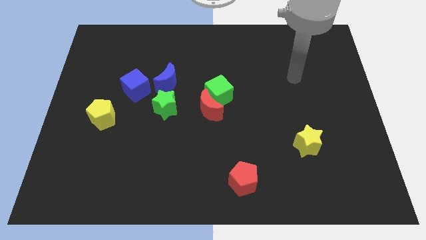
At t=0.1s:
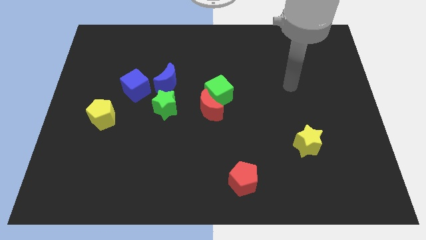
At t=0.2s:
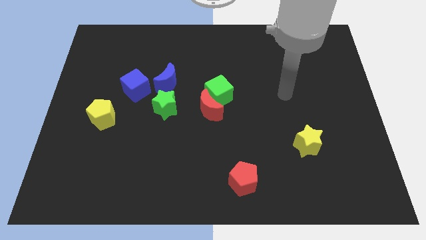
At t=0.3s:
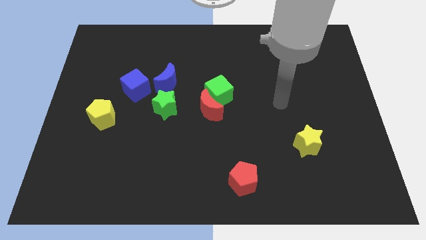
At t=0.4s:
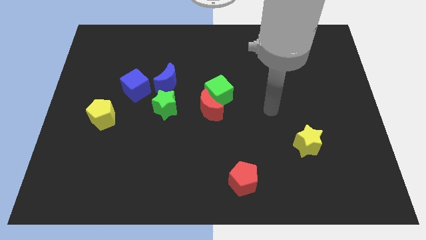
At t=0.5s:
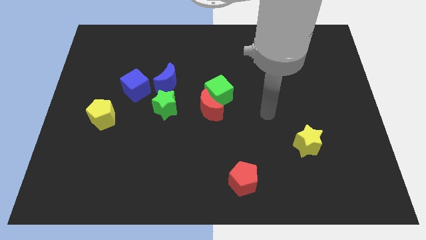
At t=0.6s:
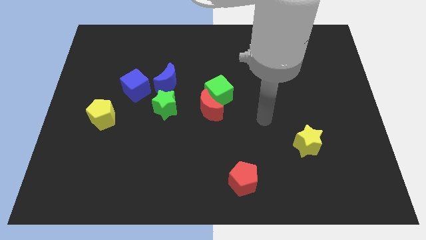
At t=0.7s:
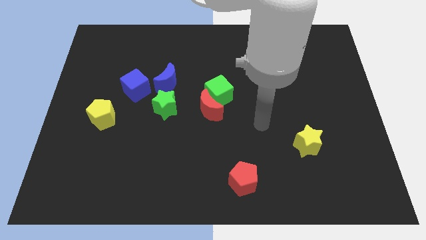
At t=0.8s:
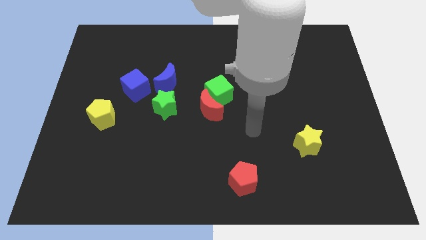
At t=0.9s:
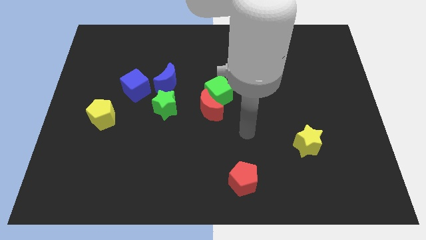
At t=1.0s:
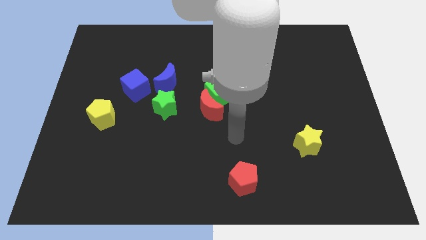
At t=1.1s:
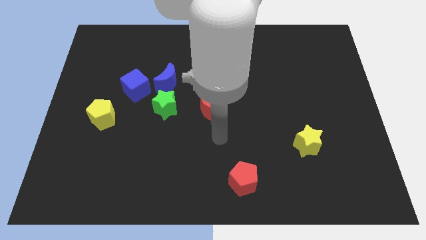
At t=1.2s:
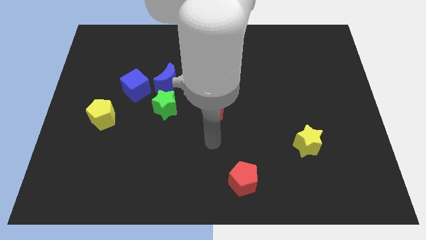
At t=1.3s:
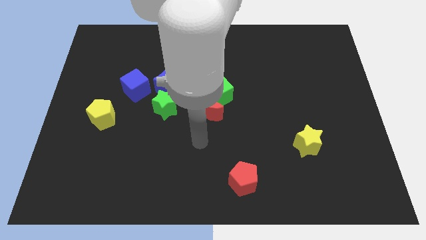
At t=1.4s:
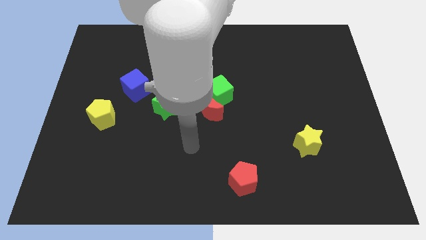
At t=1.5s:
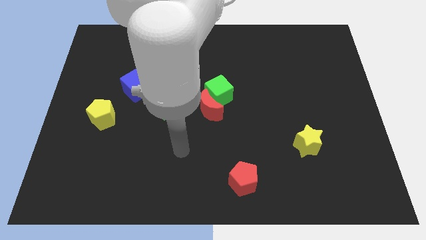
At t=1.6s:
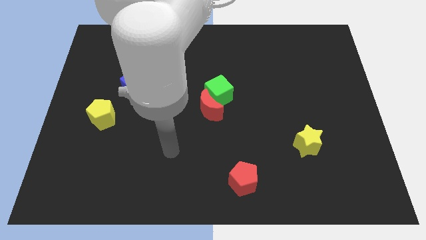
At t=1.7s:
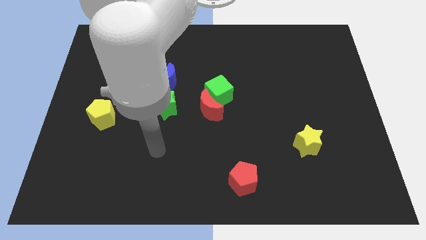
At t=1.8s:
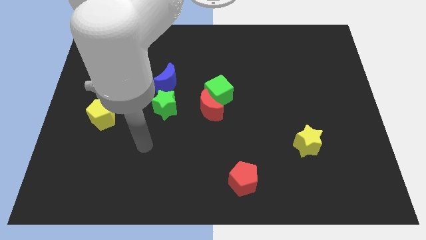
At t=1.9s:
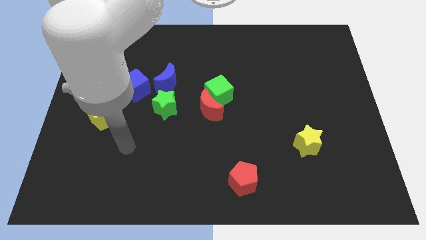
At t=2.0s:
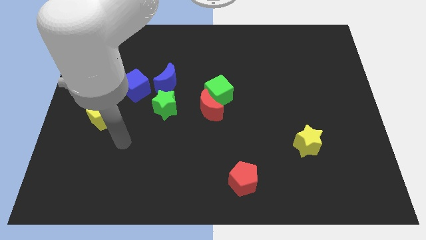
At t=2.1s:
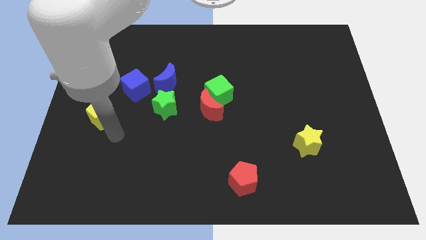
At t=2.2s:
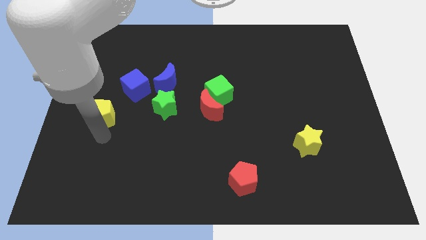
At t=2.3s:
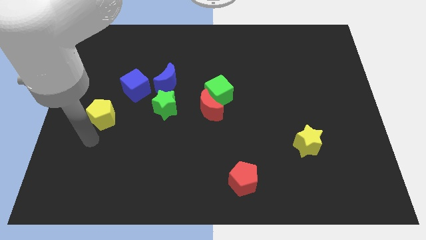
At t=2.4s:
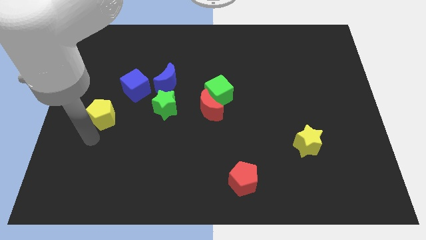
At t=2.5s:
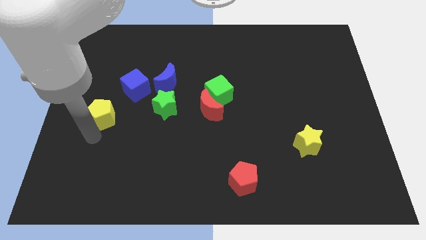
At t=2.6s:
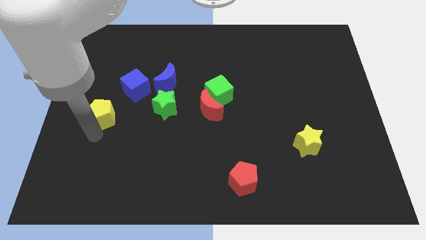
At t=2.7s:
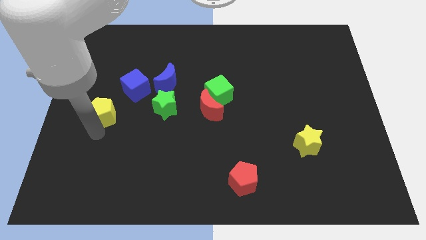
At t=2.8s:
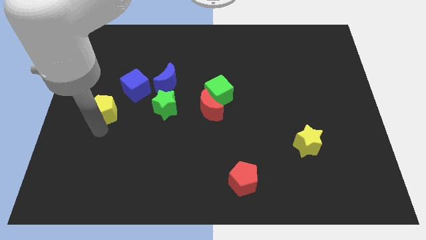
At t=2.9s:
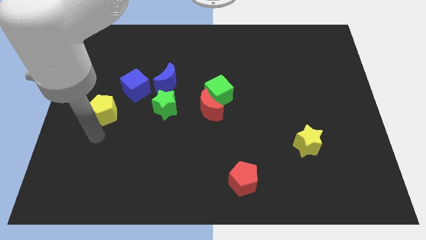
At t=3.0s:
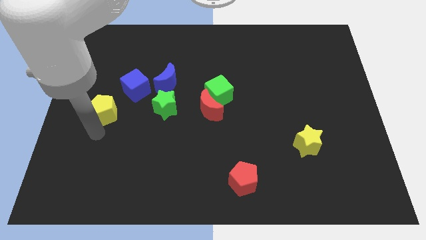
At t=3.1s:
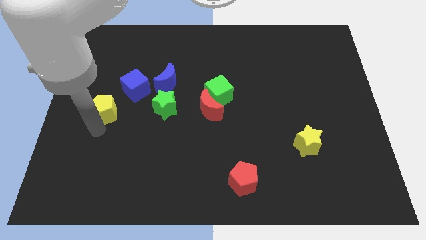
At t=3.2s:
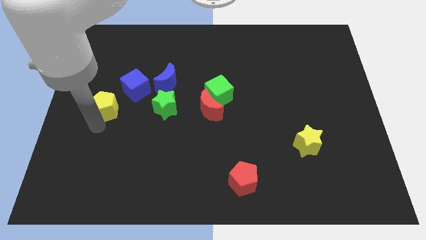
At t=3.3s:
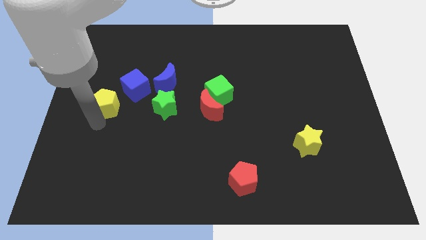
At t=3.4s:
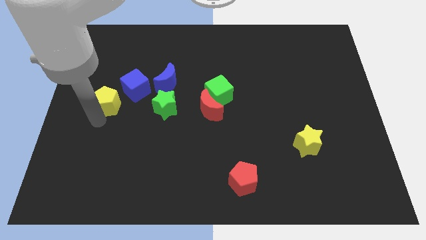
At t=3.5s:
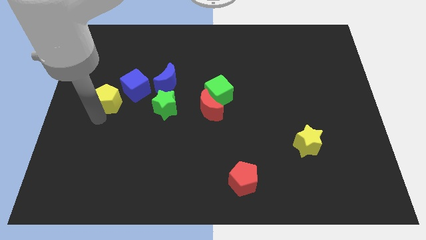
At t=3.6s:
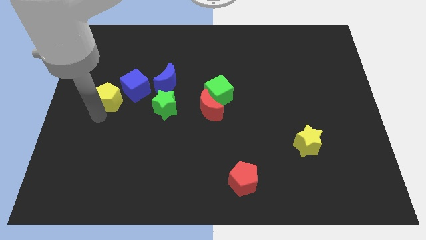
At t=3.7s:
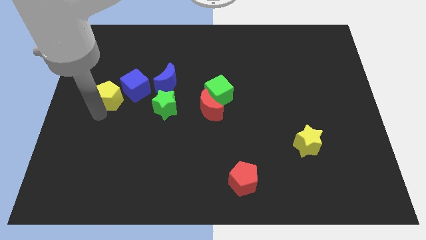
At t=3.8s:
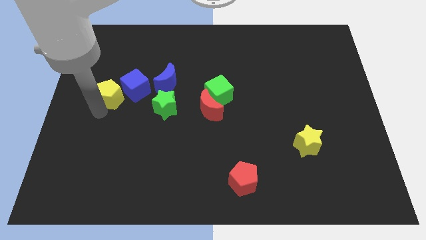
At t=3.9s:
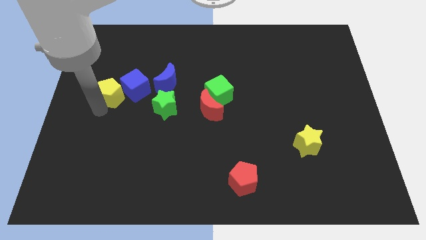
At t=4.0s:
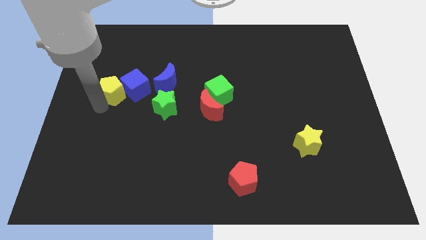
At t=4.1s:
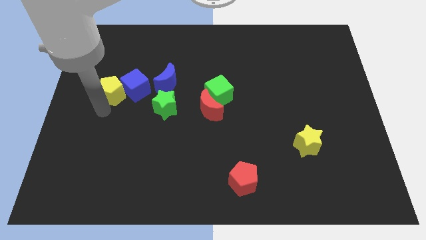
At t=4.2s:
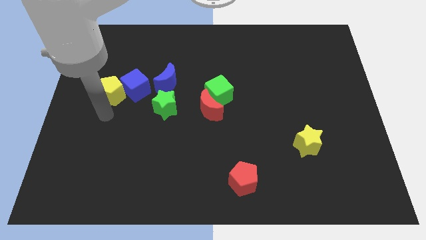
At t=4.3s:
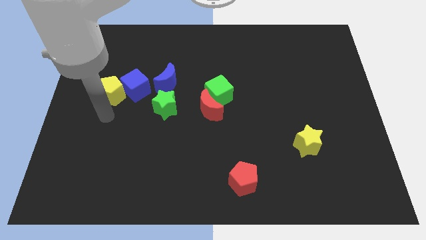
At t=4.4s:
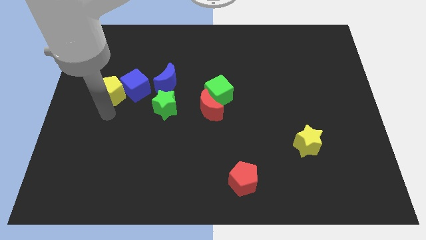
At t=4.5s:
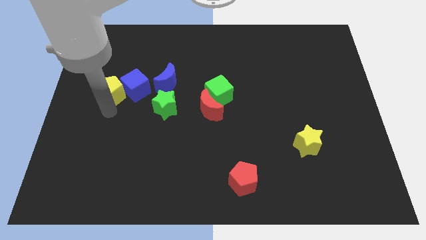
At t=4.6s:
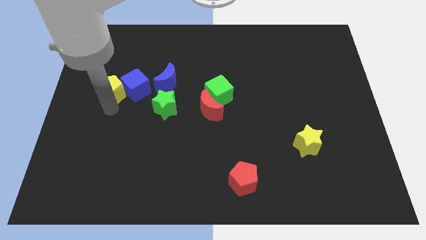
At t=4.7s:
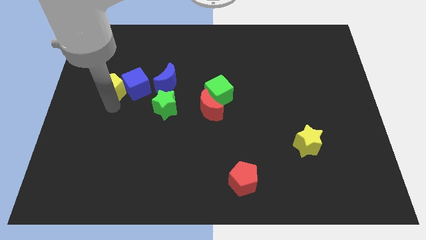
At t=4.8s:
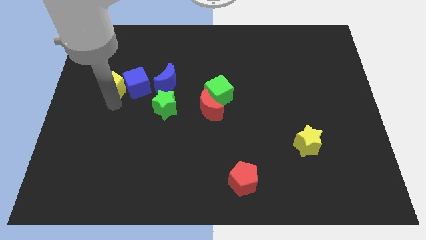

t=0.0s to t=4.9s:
put the yellow pentagon diagonally up and to the left of the blue cube

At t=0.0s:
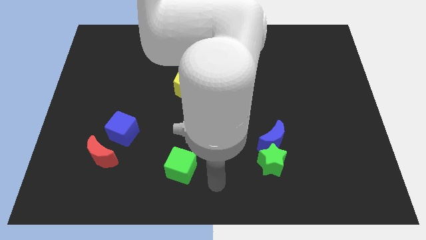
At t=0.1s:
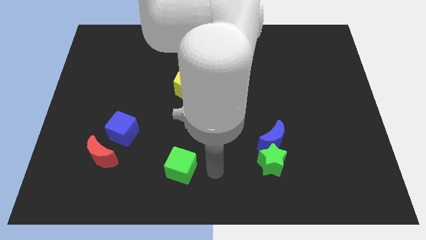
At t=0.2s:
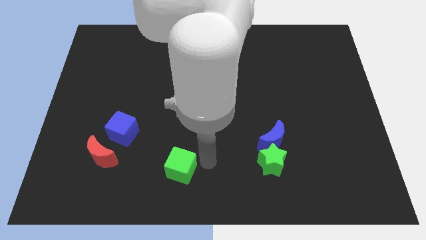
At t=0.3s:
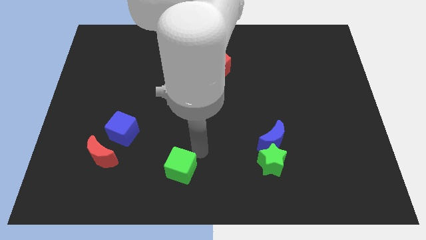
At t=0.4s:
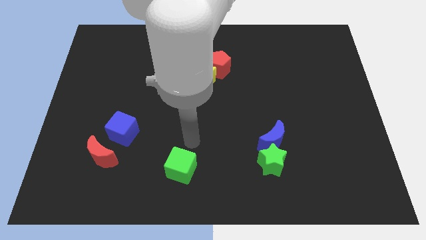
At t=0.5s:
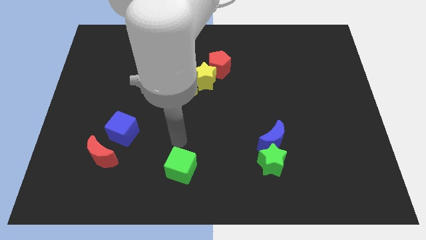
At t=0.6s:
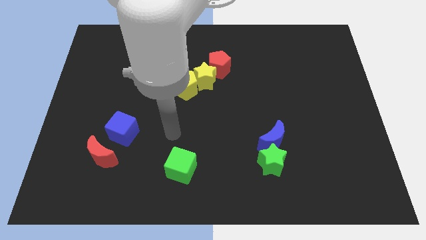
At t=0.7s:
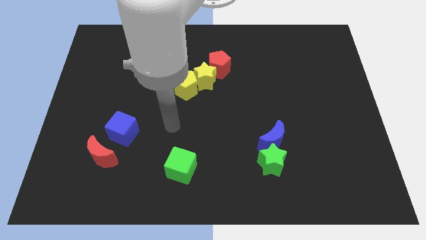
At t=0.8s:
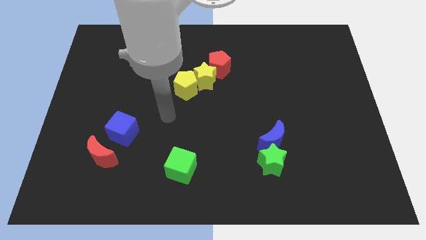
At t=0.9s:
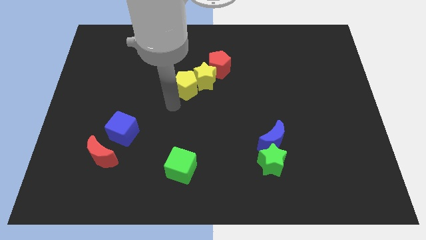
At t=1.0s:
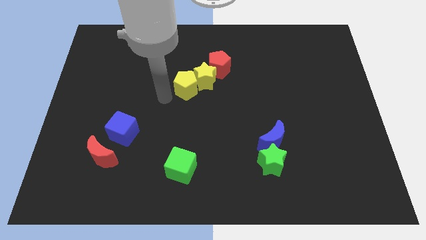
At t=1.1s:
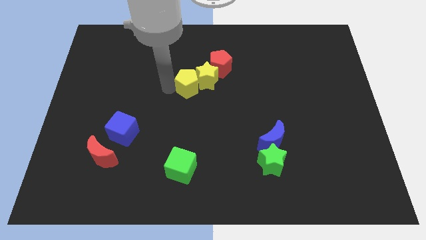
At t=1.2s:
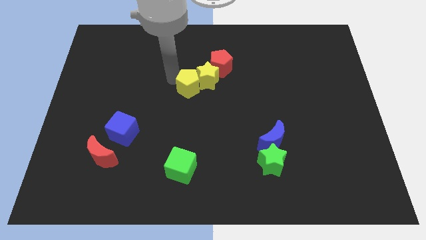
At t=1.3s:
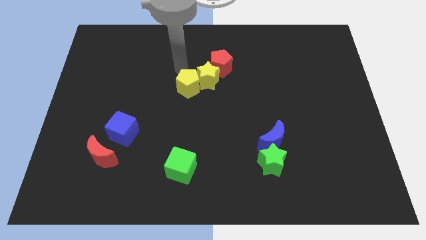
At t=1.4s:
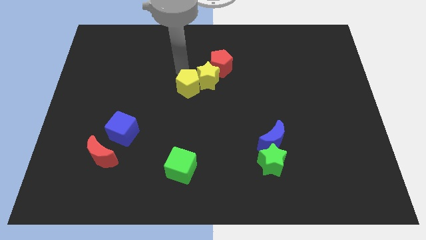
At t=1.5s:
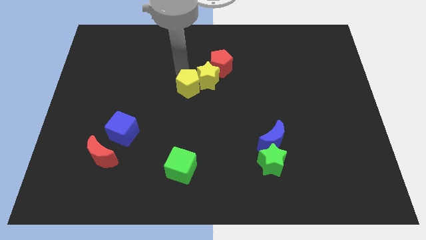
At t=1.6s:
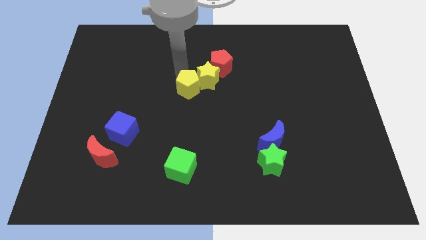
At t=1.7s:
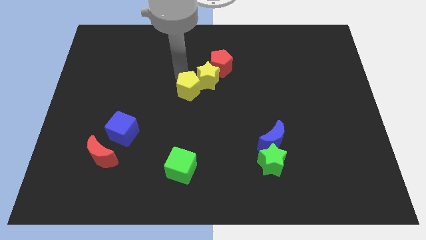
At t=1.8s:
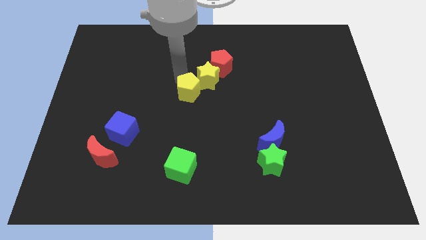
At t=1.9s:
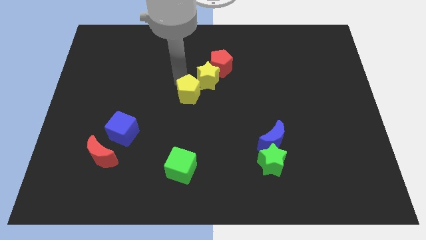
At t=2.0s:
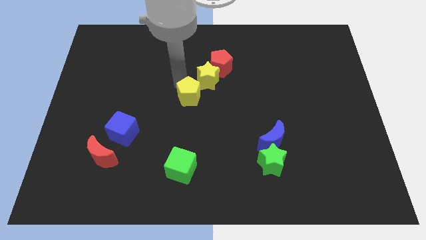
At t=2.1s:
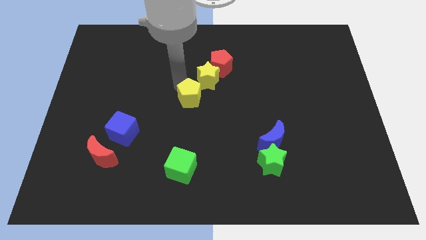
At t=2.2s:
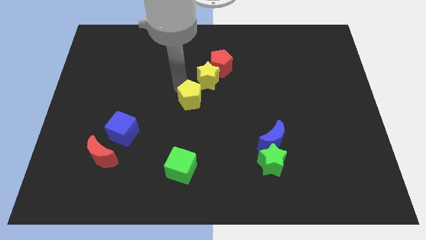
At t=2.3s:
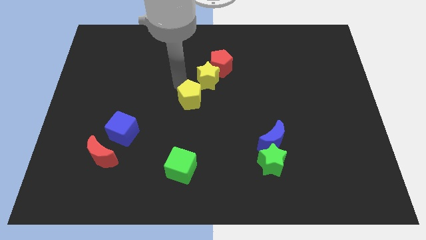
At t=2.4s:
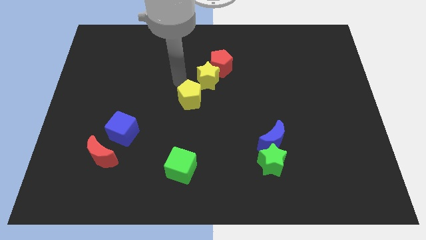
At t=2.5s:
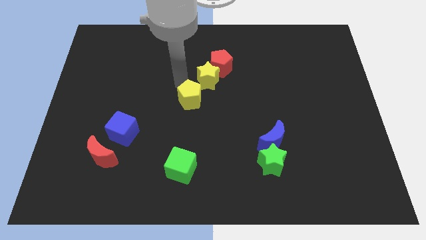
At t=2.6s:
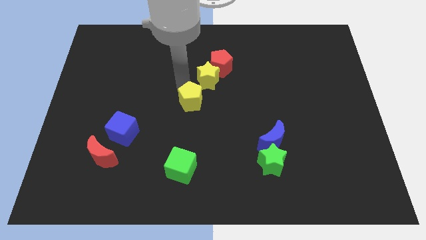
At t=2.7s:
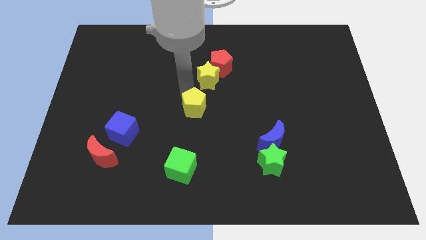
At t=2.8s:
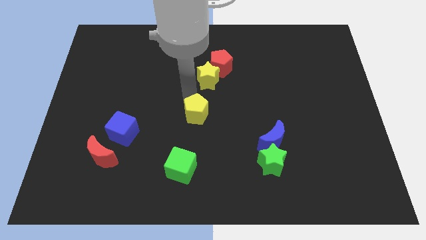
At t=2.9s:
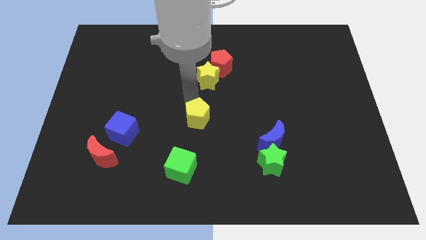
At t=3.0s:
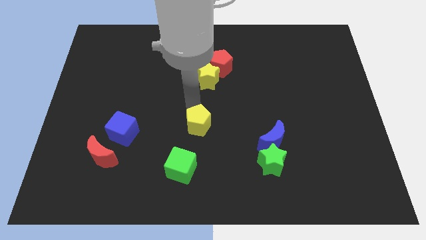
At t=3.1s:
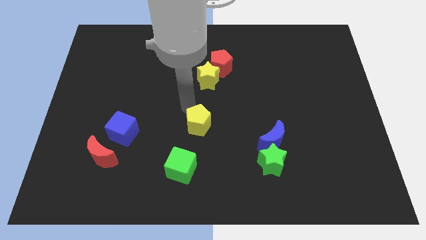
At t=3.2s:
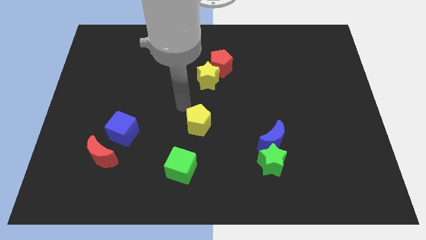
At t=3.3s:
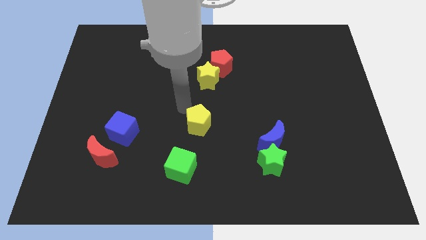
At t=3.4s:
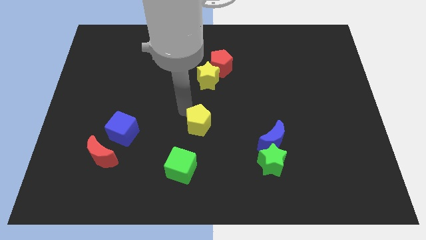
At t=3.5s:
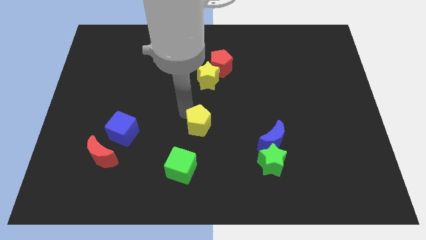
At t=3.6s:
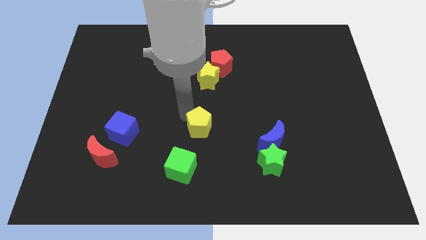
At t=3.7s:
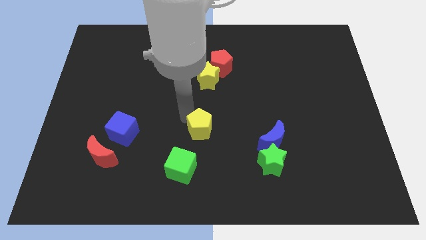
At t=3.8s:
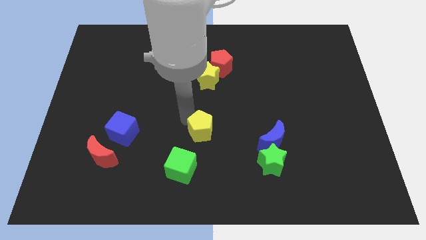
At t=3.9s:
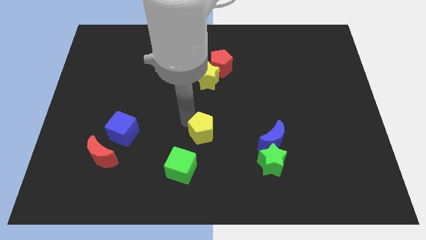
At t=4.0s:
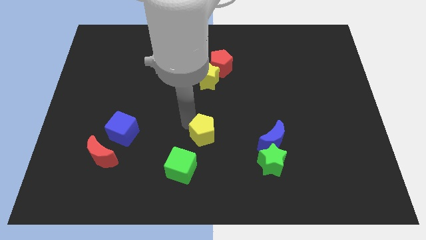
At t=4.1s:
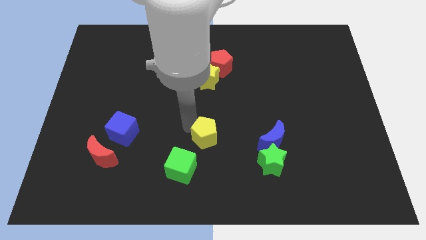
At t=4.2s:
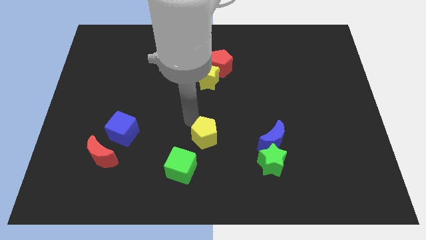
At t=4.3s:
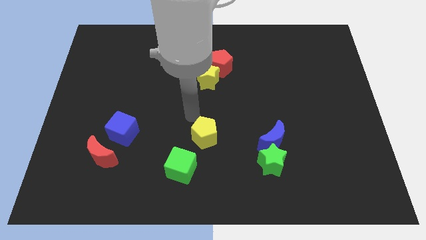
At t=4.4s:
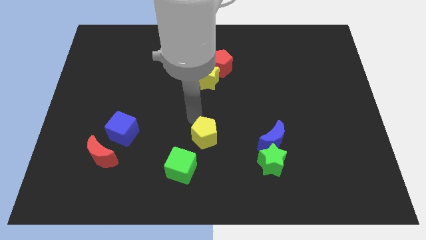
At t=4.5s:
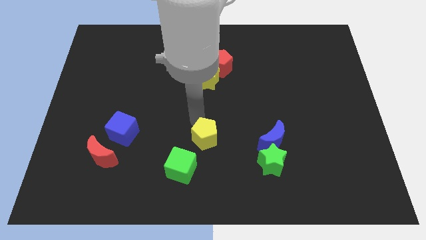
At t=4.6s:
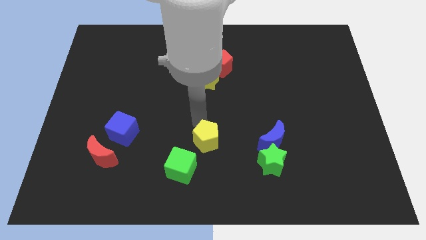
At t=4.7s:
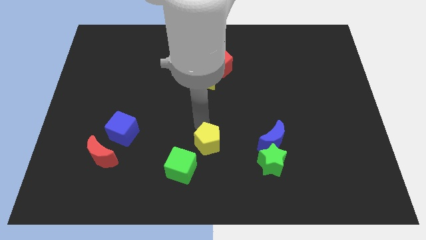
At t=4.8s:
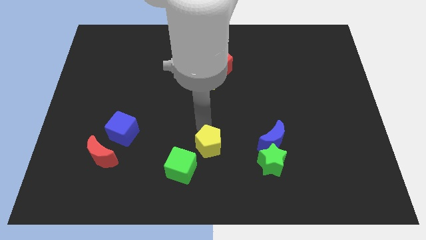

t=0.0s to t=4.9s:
slide the yellow pentagon just left of the green star
